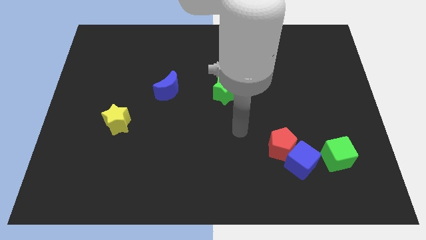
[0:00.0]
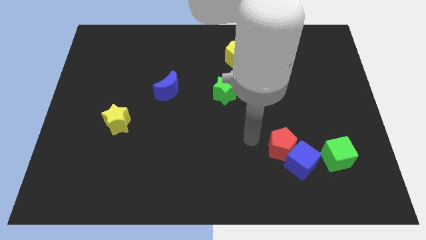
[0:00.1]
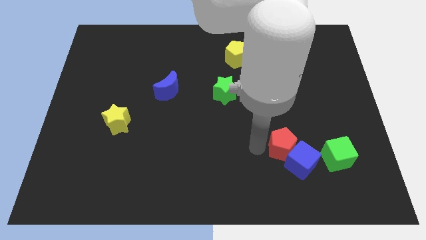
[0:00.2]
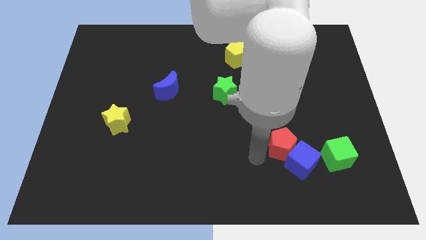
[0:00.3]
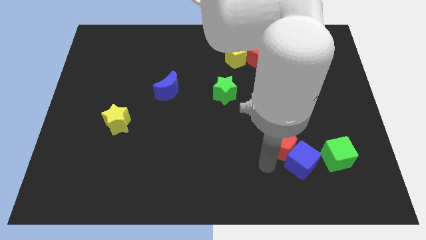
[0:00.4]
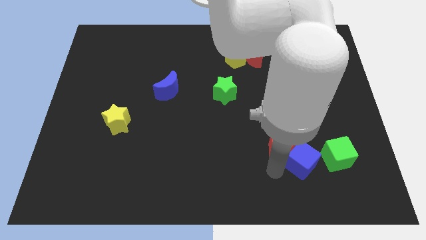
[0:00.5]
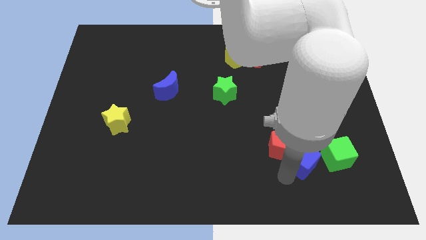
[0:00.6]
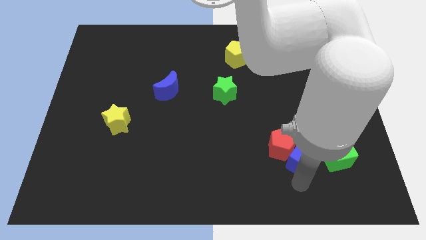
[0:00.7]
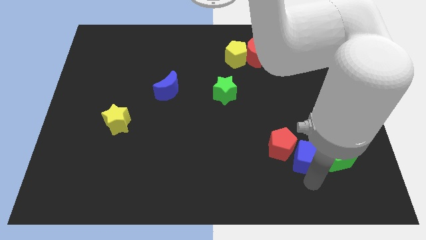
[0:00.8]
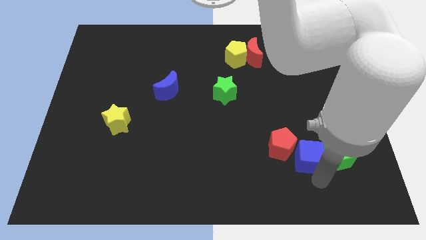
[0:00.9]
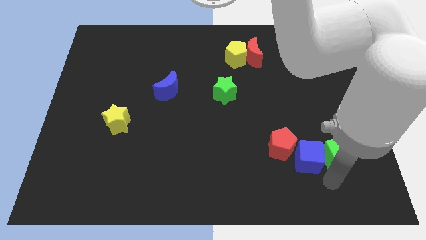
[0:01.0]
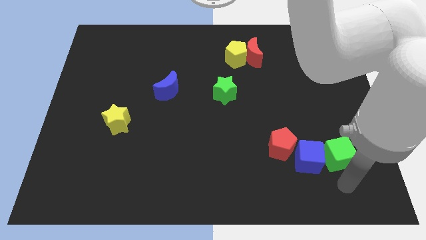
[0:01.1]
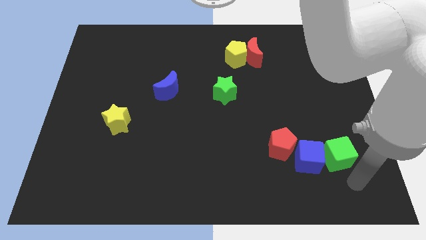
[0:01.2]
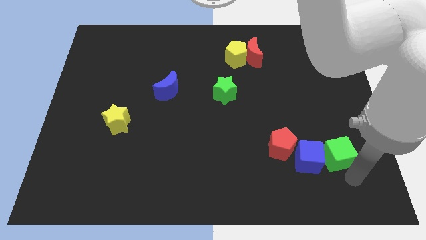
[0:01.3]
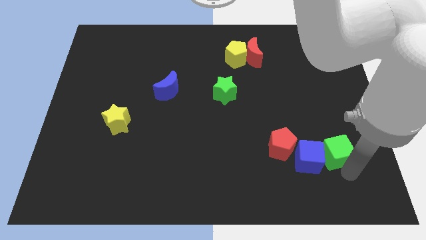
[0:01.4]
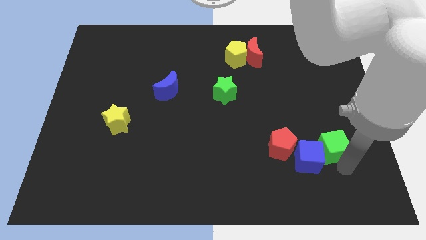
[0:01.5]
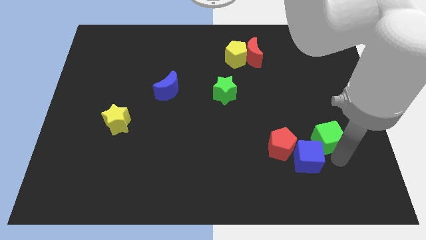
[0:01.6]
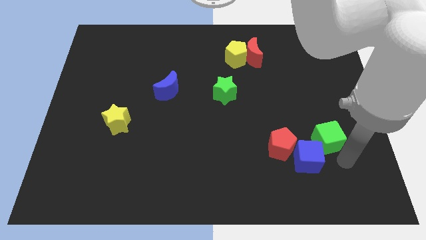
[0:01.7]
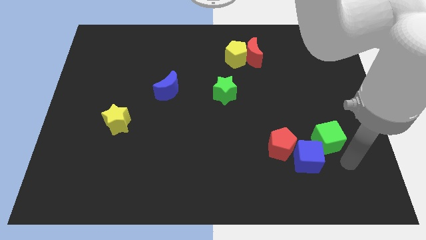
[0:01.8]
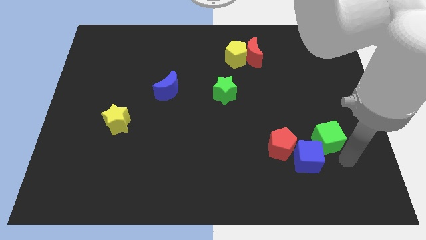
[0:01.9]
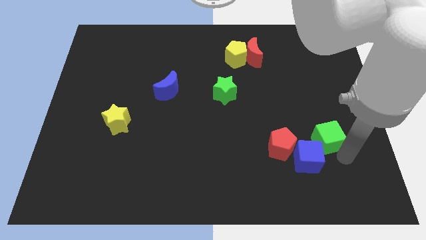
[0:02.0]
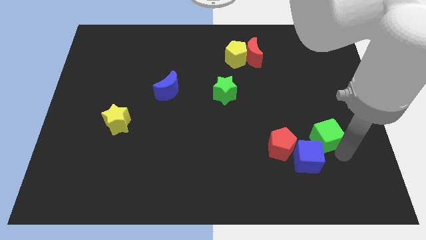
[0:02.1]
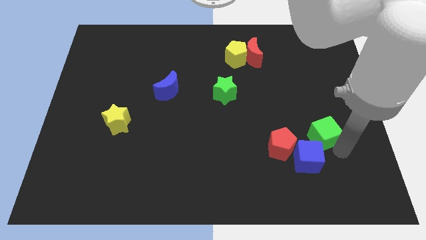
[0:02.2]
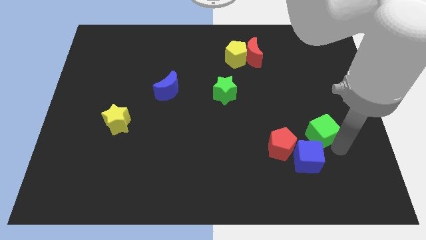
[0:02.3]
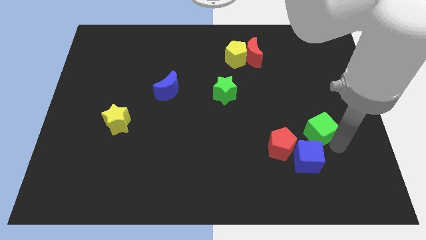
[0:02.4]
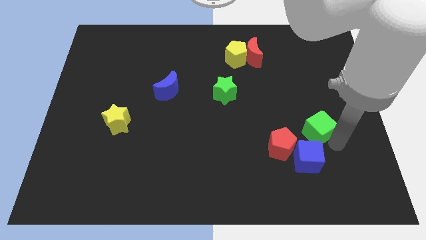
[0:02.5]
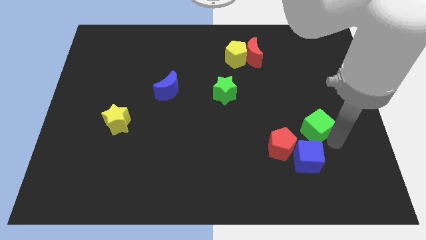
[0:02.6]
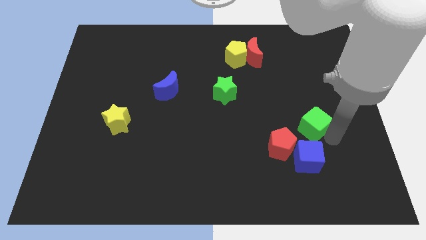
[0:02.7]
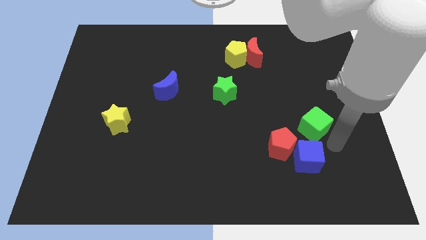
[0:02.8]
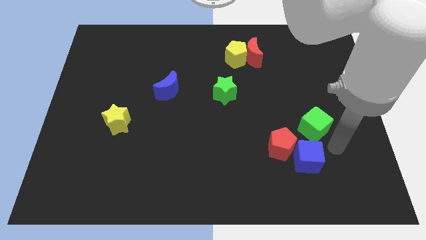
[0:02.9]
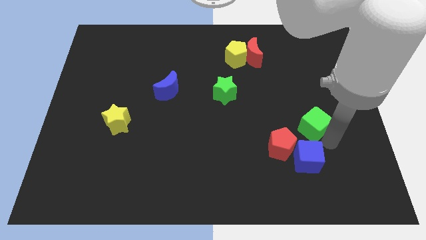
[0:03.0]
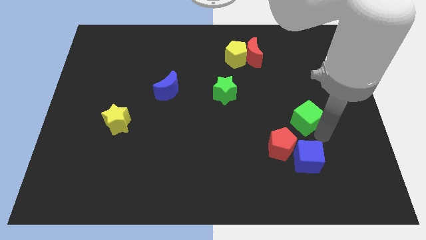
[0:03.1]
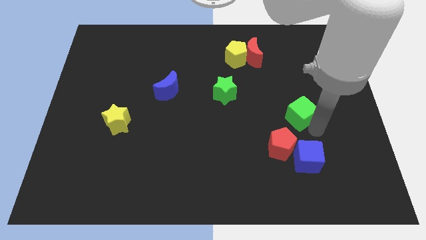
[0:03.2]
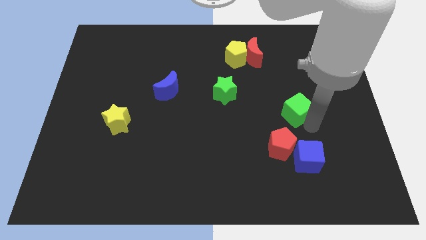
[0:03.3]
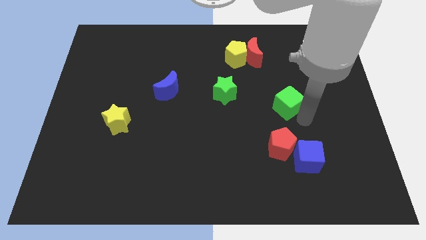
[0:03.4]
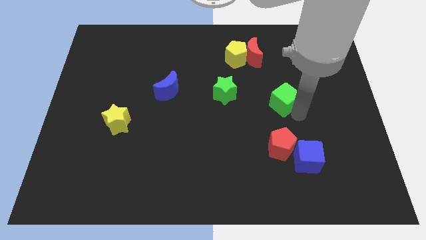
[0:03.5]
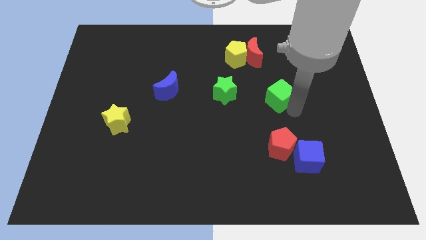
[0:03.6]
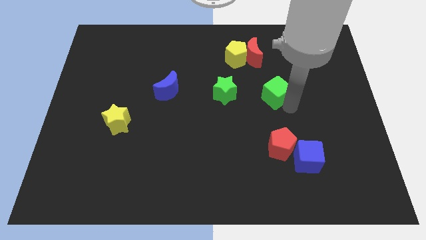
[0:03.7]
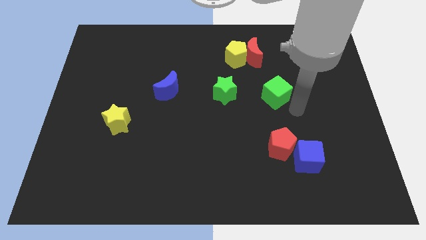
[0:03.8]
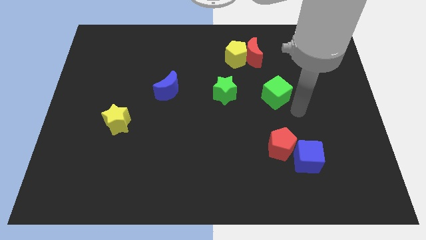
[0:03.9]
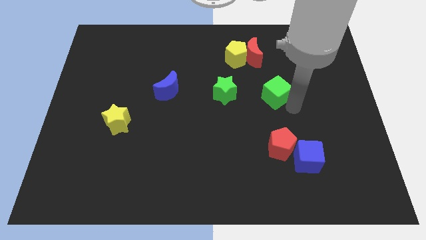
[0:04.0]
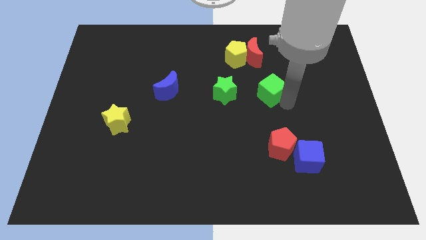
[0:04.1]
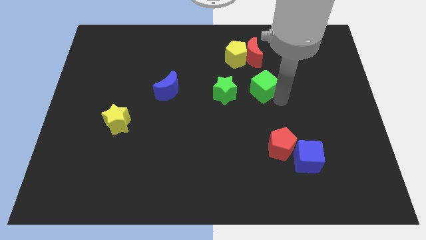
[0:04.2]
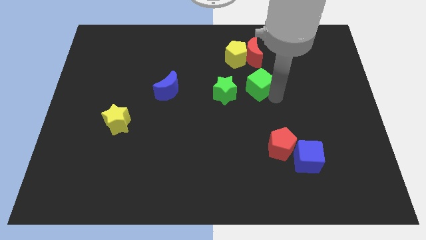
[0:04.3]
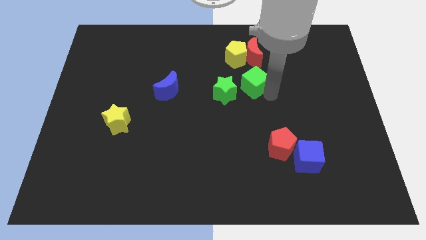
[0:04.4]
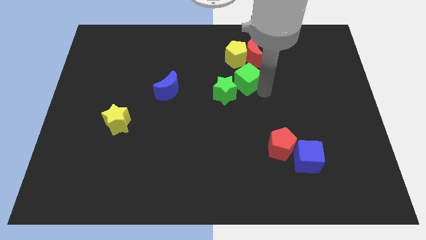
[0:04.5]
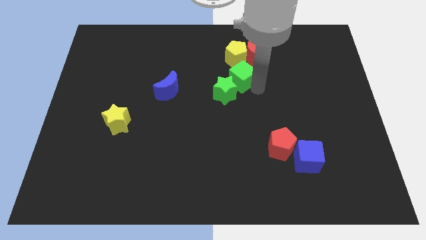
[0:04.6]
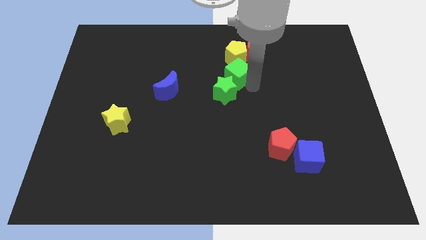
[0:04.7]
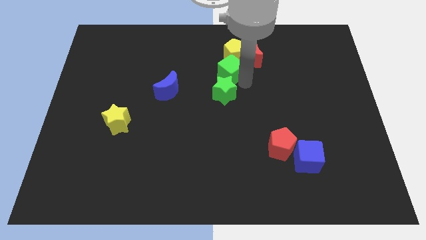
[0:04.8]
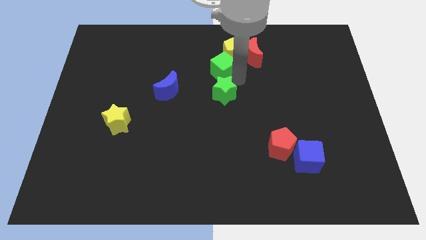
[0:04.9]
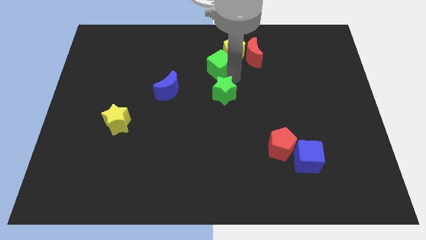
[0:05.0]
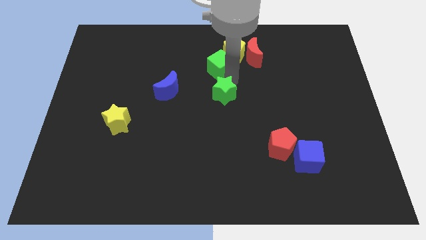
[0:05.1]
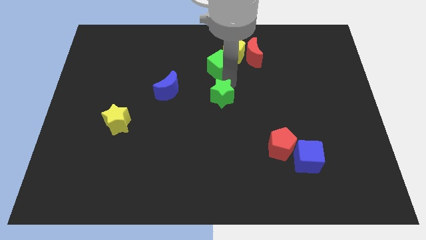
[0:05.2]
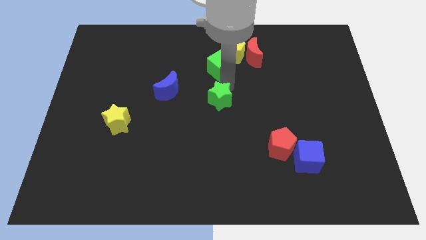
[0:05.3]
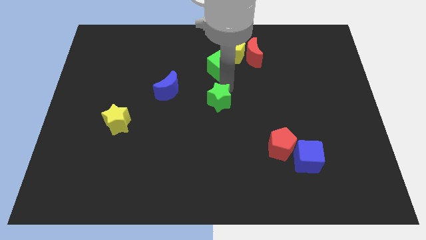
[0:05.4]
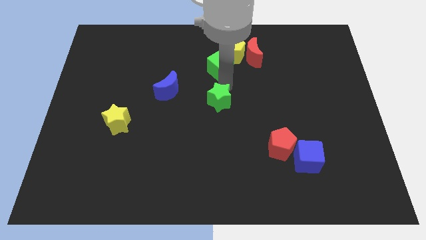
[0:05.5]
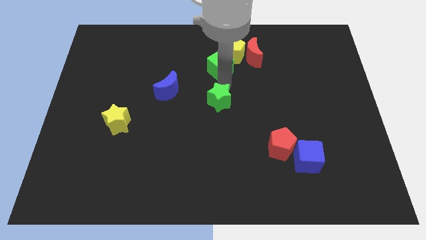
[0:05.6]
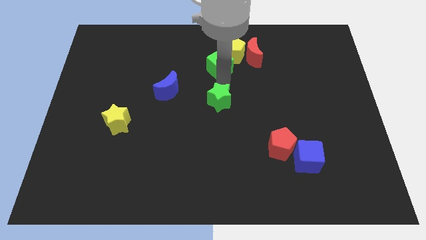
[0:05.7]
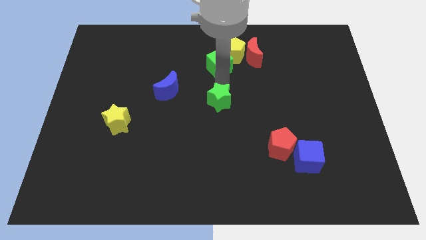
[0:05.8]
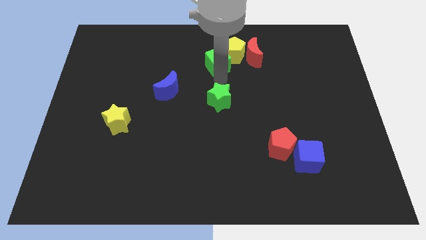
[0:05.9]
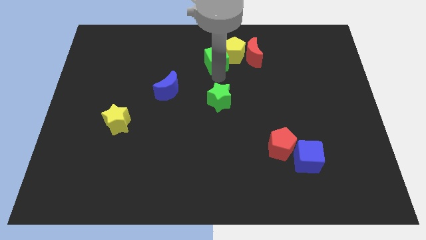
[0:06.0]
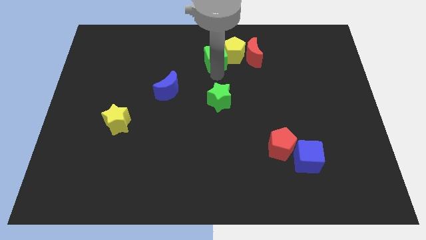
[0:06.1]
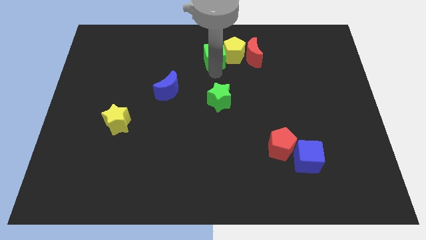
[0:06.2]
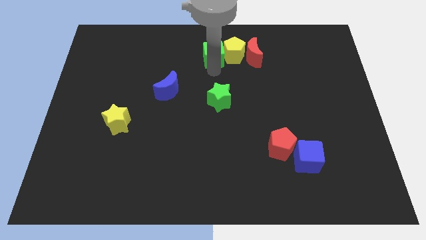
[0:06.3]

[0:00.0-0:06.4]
slide the green cube to the top side

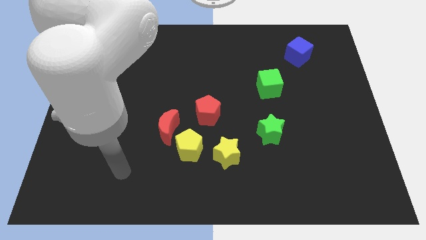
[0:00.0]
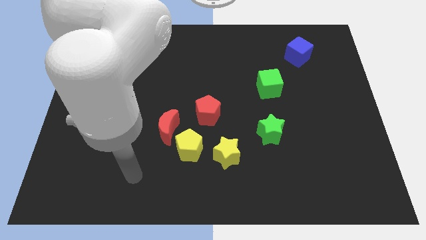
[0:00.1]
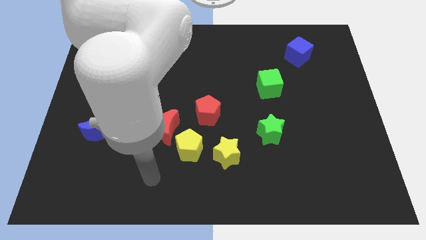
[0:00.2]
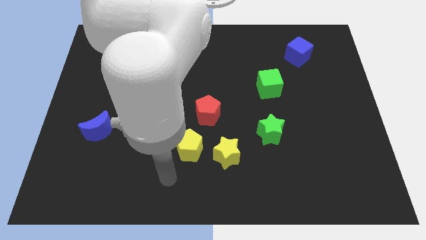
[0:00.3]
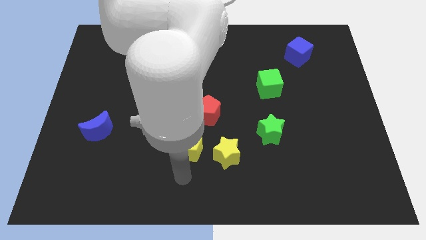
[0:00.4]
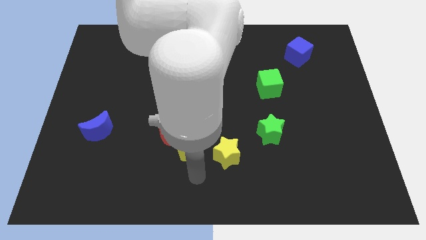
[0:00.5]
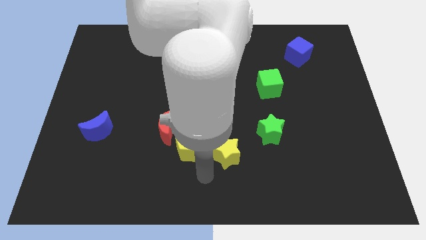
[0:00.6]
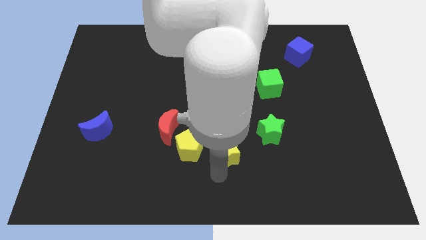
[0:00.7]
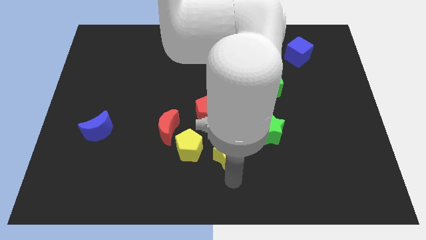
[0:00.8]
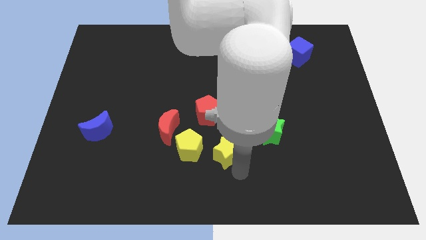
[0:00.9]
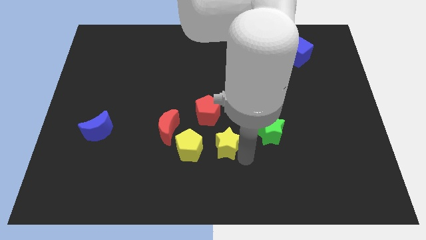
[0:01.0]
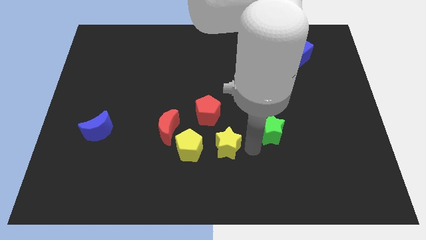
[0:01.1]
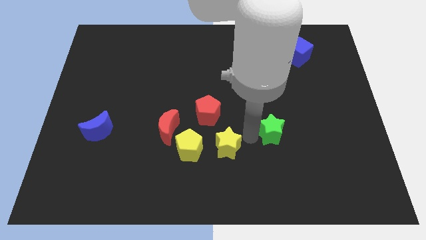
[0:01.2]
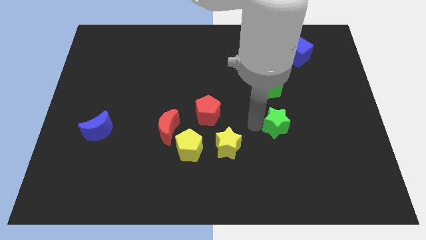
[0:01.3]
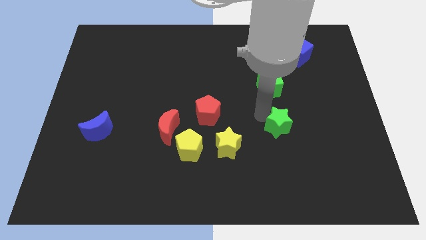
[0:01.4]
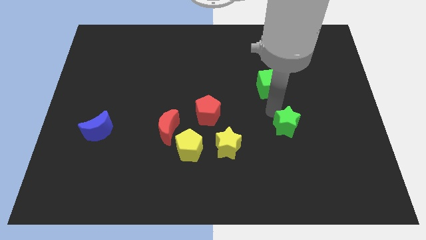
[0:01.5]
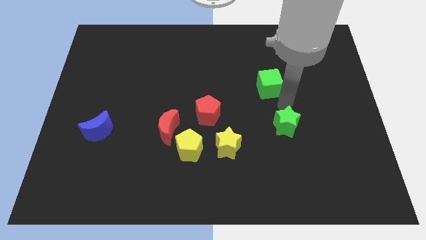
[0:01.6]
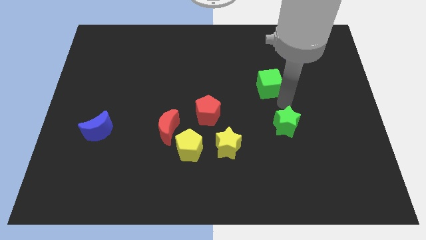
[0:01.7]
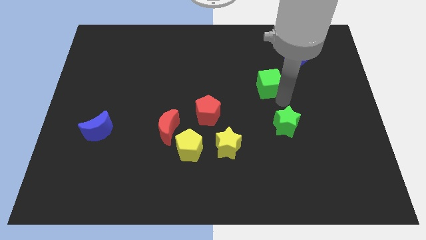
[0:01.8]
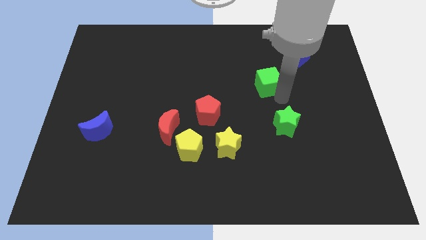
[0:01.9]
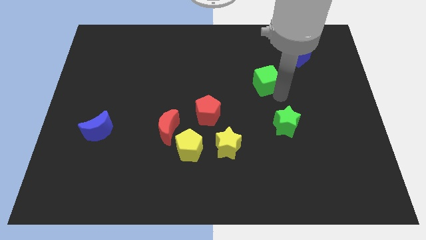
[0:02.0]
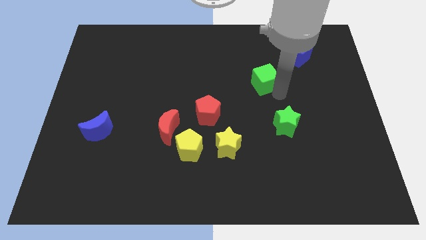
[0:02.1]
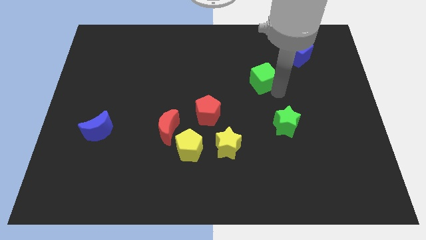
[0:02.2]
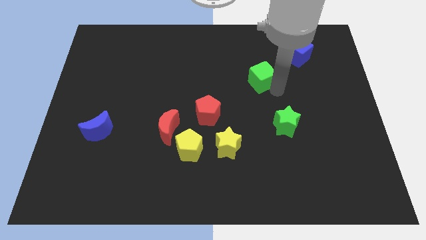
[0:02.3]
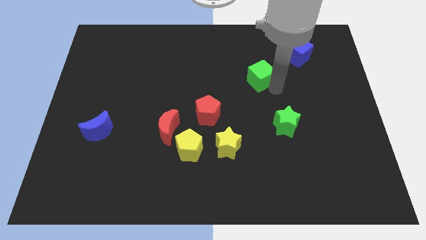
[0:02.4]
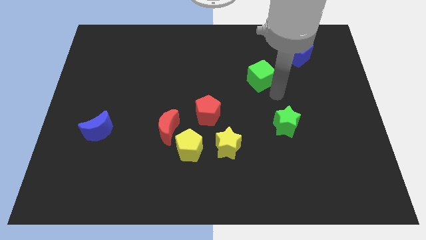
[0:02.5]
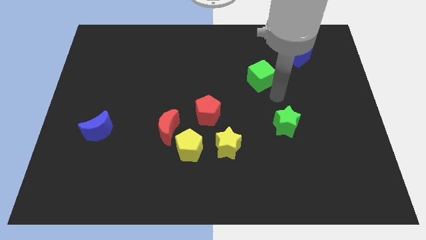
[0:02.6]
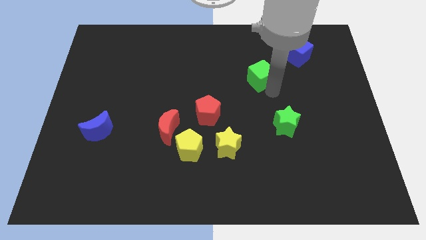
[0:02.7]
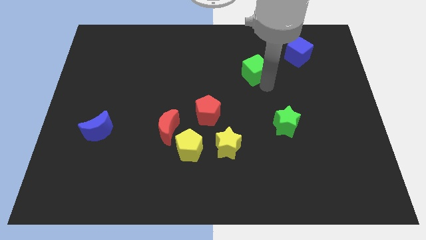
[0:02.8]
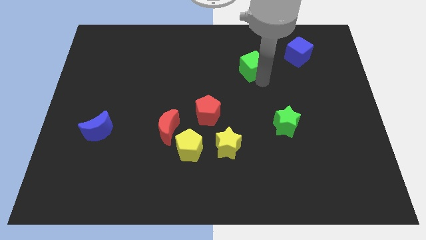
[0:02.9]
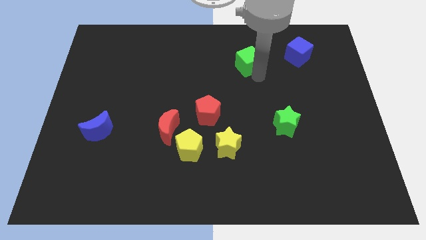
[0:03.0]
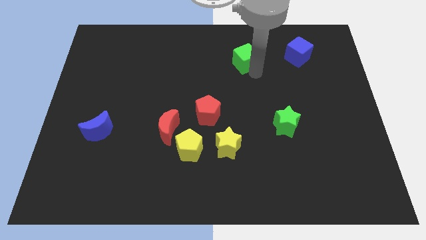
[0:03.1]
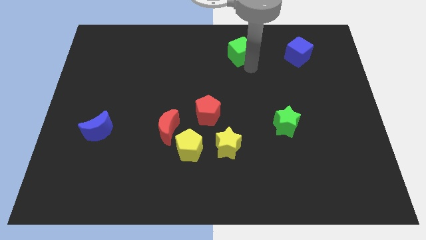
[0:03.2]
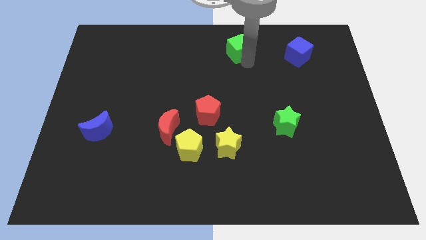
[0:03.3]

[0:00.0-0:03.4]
push the green cube to the top
